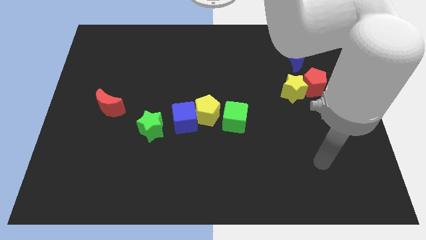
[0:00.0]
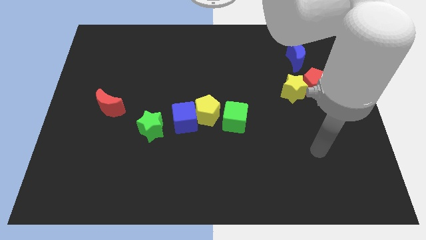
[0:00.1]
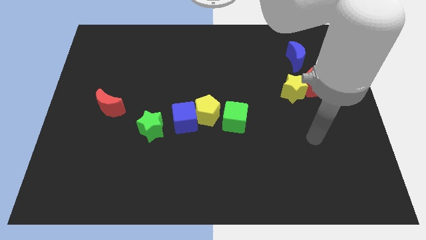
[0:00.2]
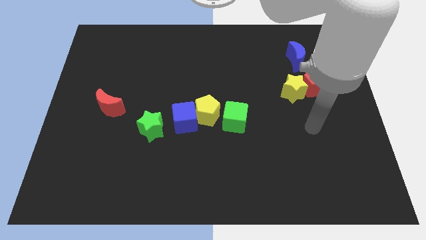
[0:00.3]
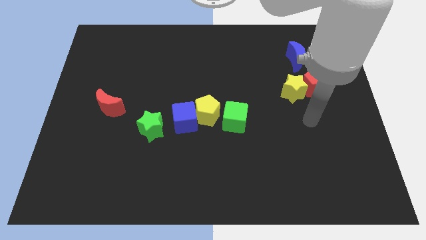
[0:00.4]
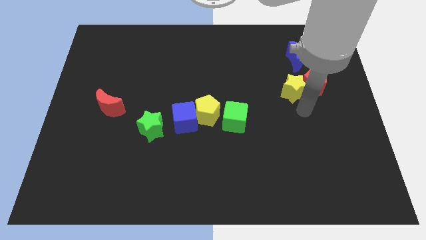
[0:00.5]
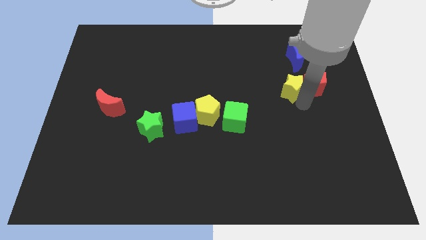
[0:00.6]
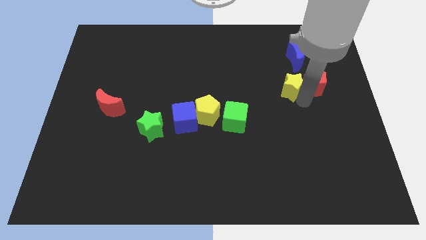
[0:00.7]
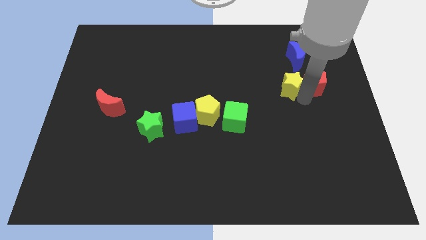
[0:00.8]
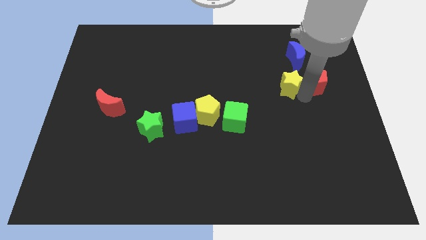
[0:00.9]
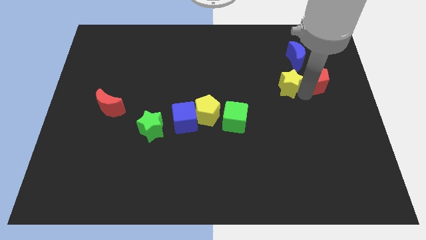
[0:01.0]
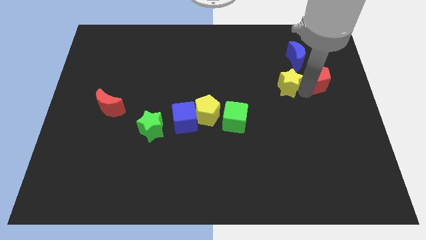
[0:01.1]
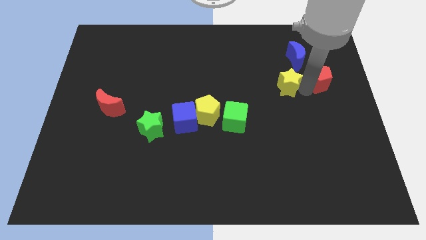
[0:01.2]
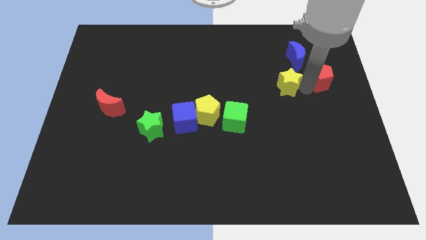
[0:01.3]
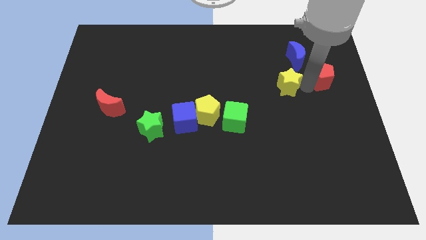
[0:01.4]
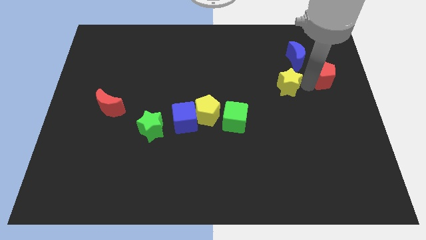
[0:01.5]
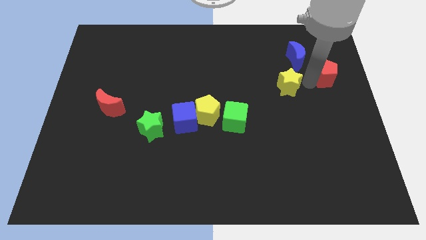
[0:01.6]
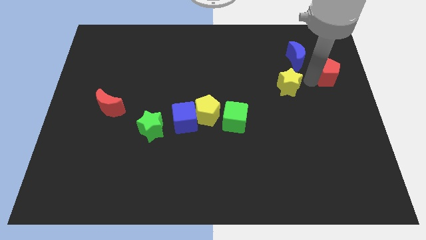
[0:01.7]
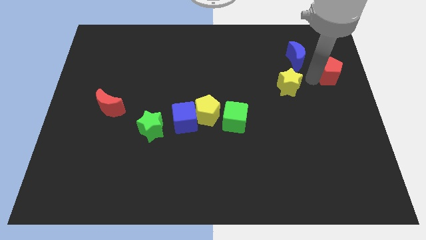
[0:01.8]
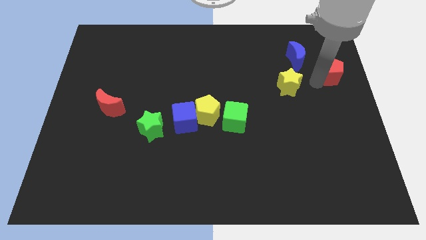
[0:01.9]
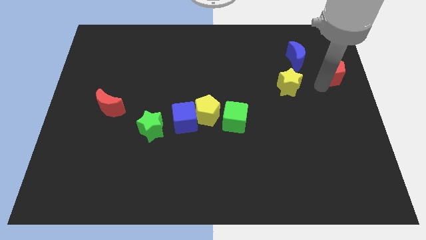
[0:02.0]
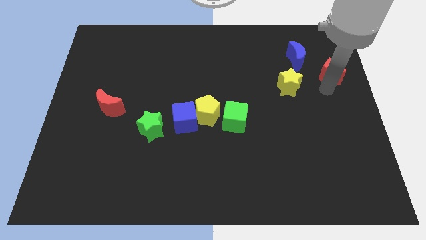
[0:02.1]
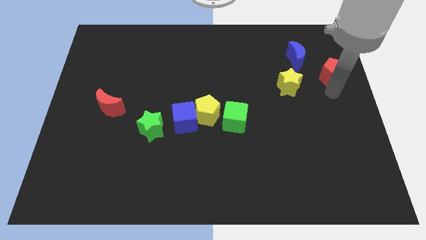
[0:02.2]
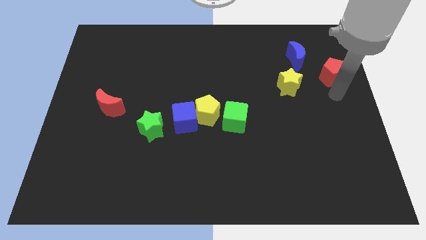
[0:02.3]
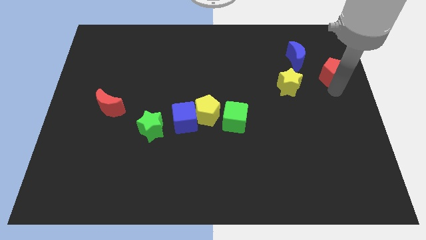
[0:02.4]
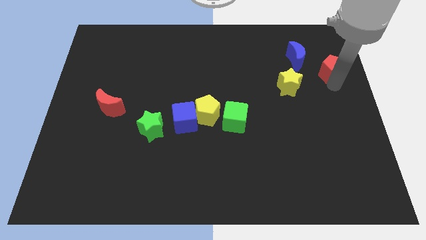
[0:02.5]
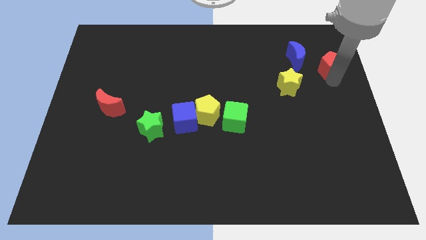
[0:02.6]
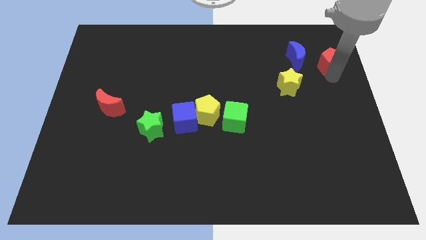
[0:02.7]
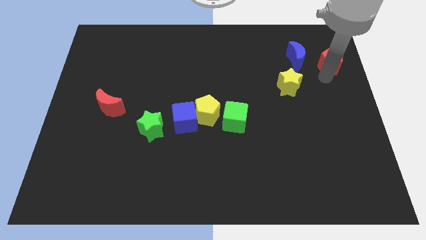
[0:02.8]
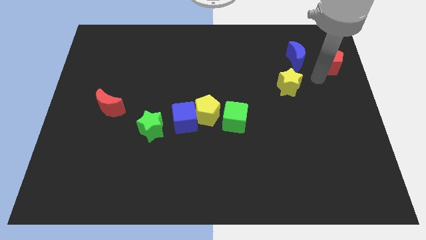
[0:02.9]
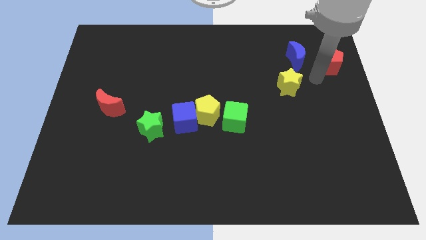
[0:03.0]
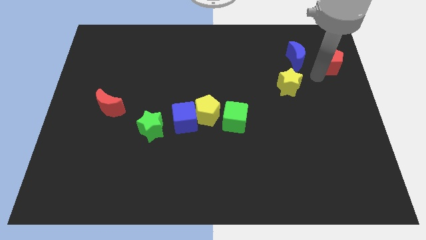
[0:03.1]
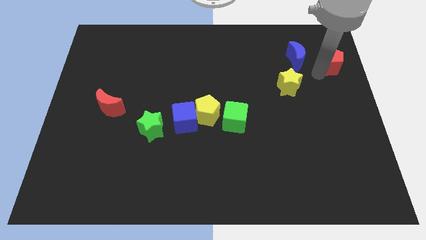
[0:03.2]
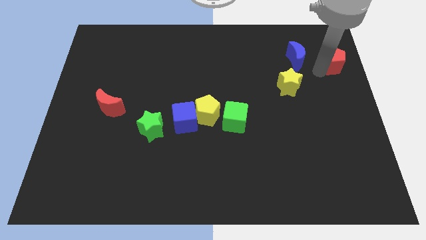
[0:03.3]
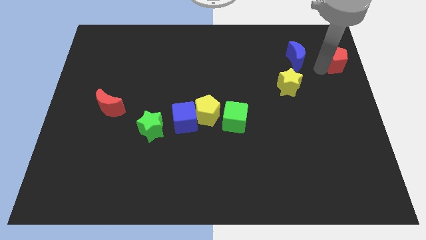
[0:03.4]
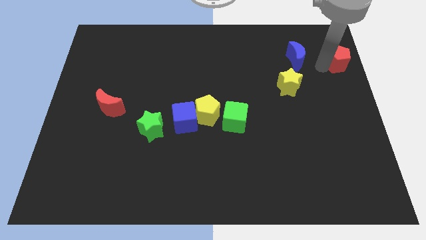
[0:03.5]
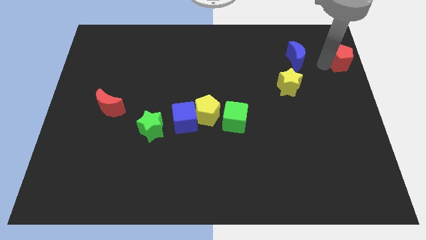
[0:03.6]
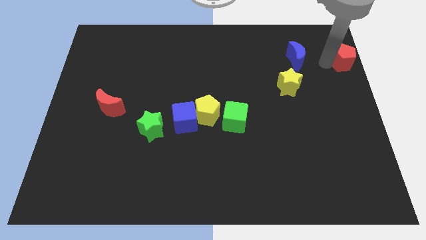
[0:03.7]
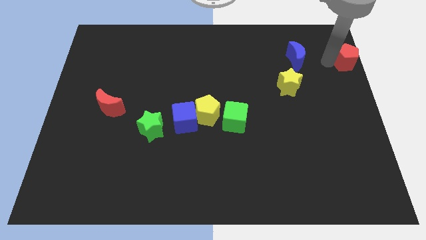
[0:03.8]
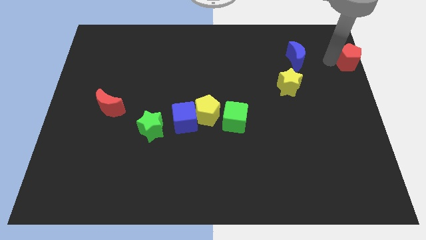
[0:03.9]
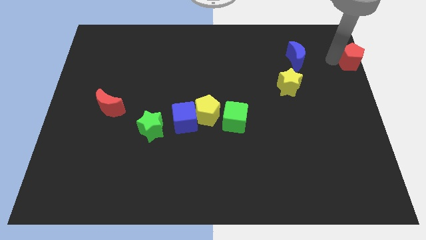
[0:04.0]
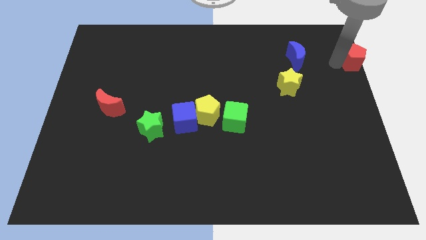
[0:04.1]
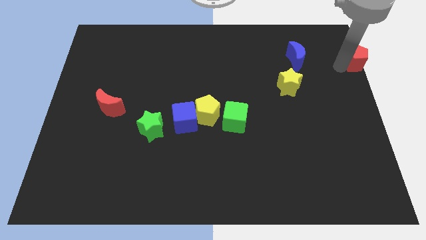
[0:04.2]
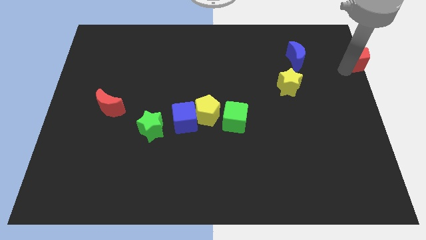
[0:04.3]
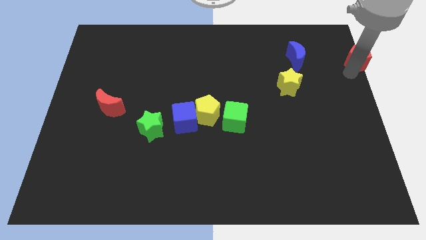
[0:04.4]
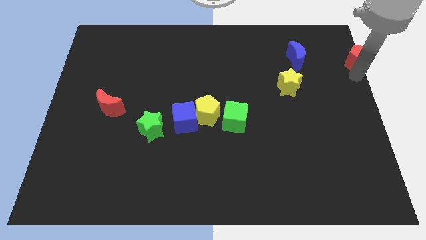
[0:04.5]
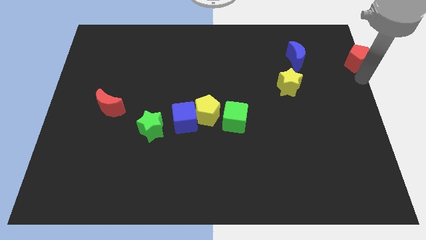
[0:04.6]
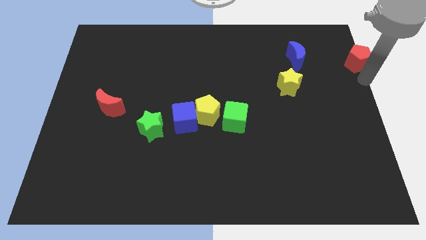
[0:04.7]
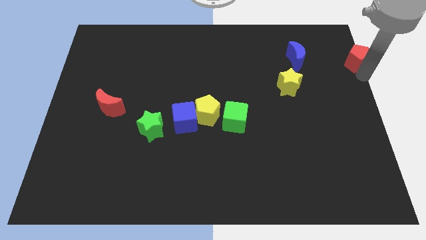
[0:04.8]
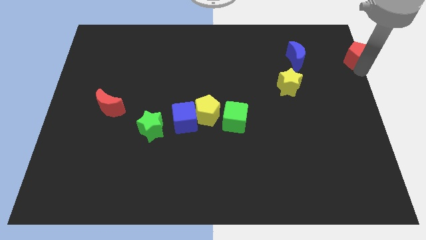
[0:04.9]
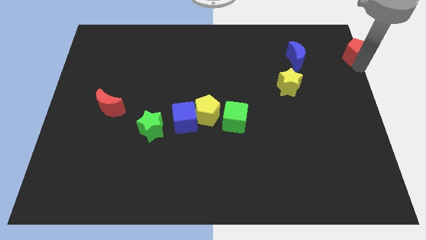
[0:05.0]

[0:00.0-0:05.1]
push the red pentagon to the top right

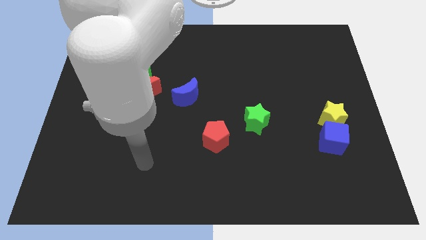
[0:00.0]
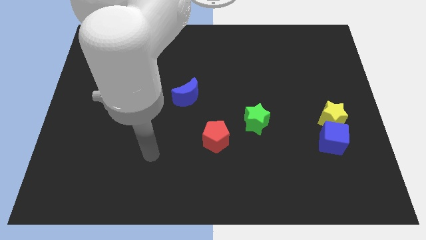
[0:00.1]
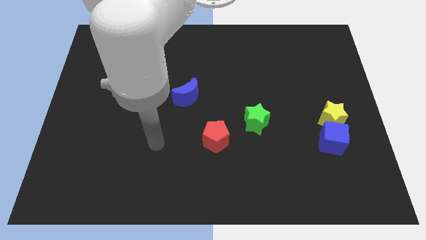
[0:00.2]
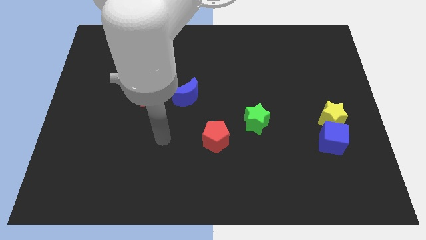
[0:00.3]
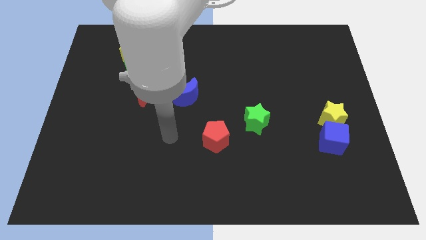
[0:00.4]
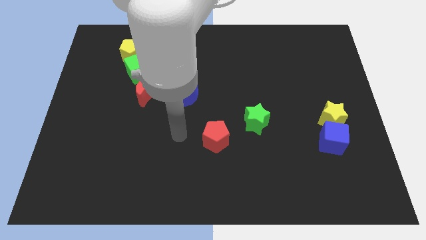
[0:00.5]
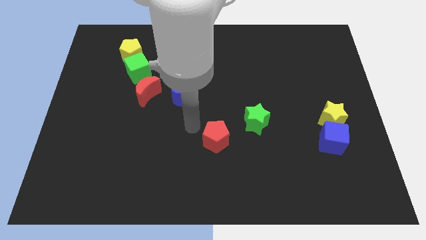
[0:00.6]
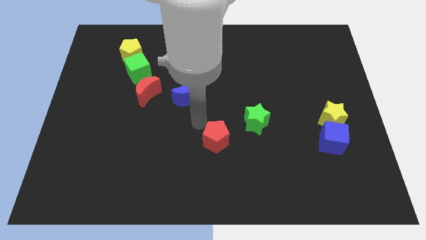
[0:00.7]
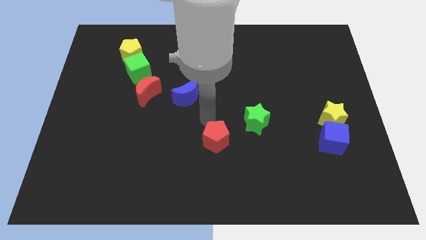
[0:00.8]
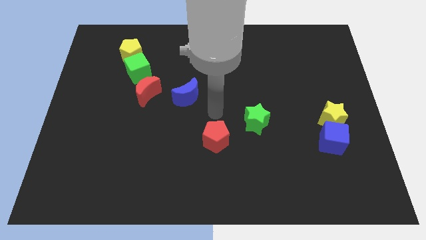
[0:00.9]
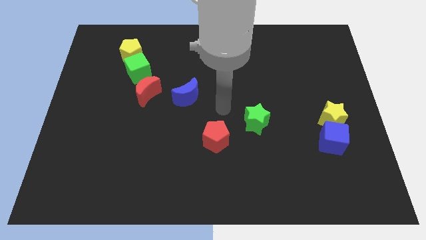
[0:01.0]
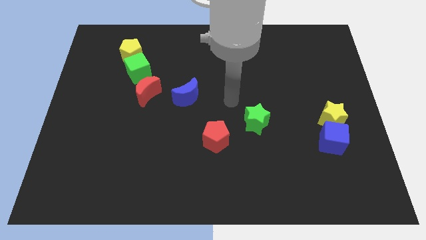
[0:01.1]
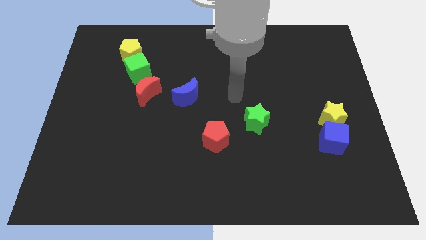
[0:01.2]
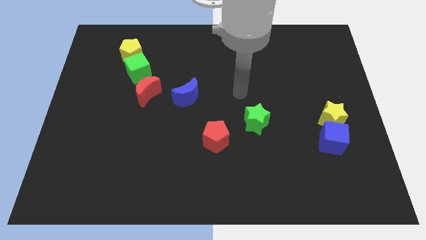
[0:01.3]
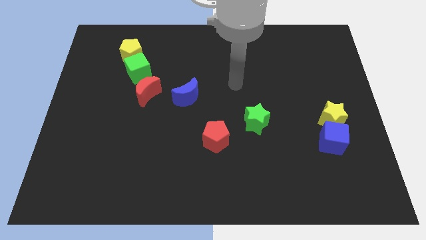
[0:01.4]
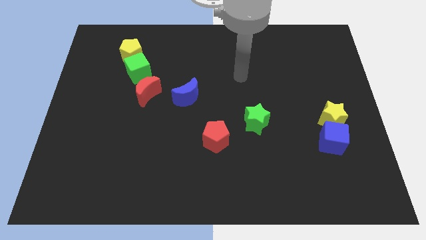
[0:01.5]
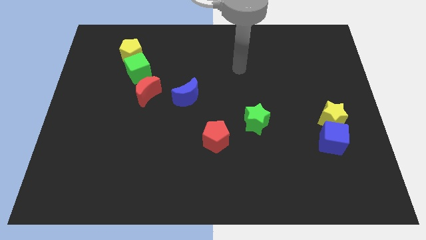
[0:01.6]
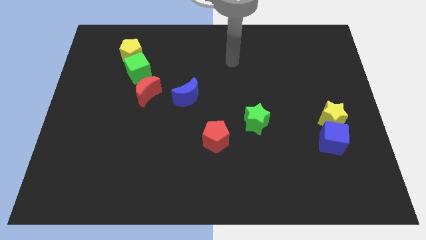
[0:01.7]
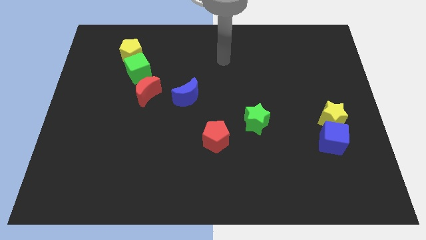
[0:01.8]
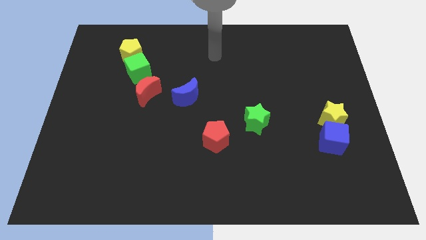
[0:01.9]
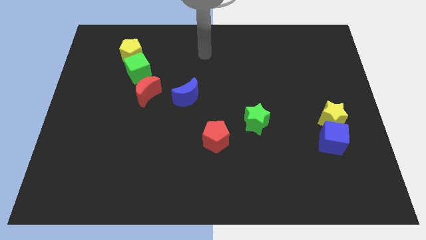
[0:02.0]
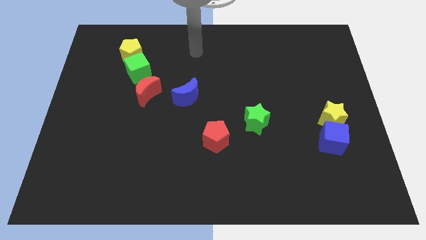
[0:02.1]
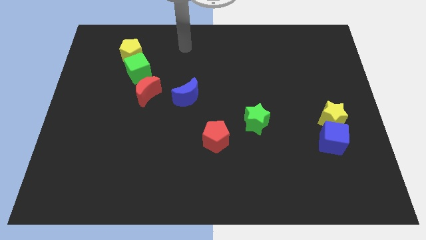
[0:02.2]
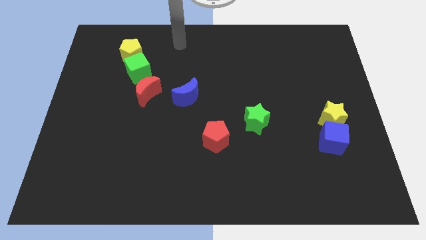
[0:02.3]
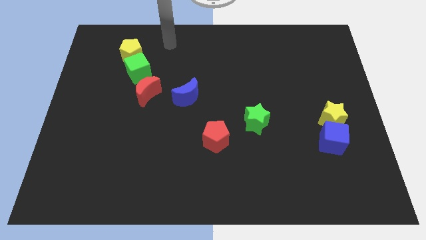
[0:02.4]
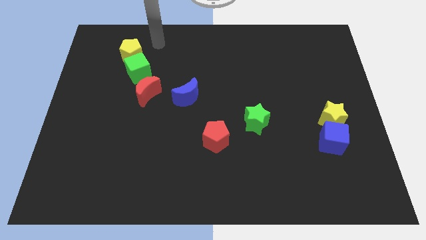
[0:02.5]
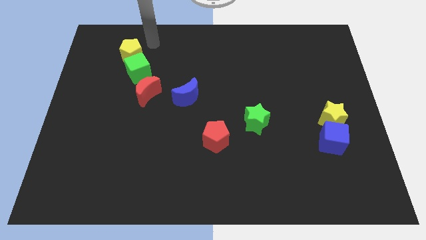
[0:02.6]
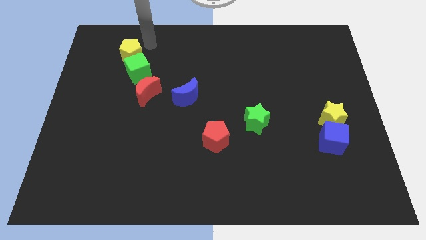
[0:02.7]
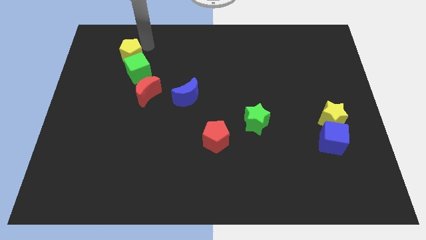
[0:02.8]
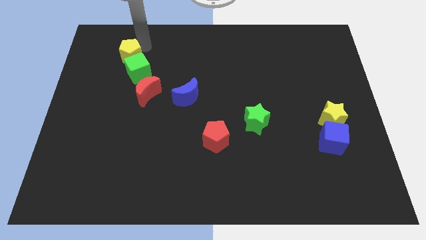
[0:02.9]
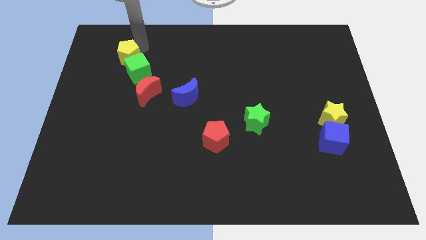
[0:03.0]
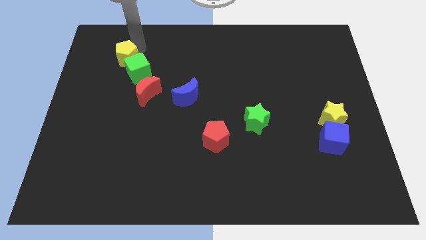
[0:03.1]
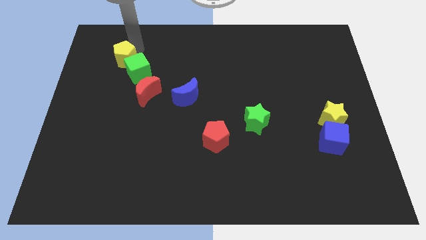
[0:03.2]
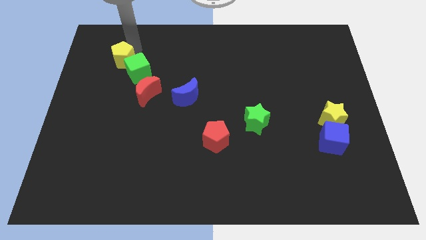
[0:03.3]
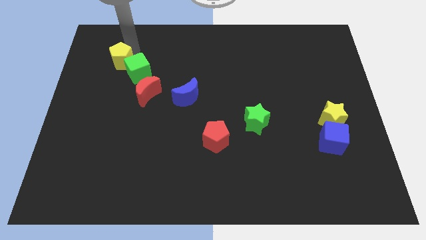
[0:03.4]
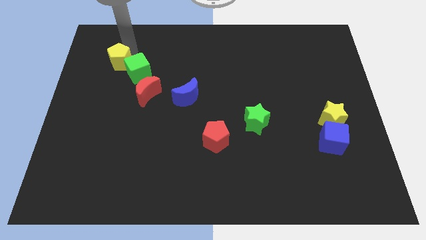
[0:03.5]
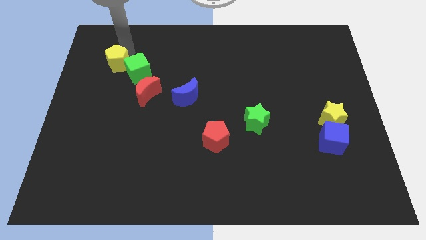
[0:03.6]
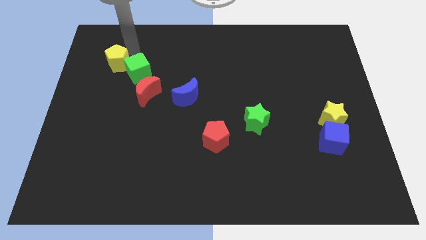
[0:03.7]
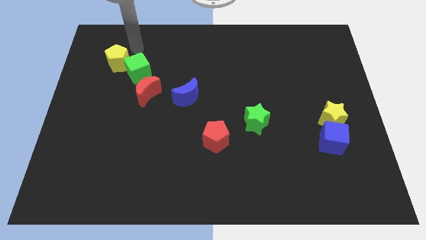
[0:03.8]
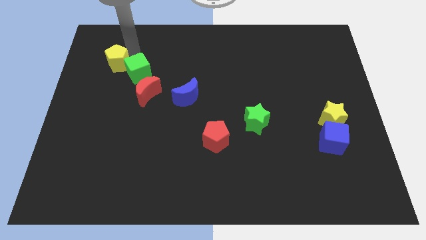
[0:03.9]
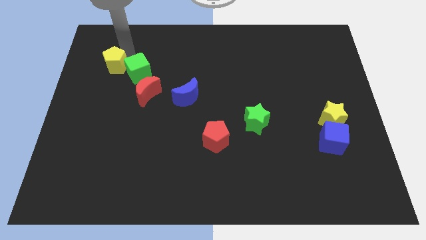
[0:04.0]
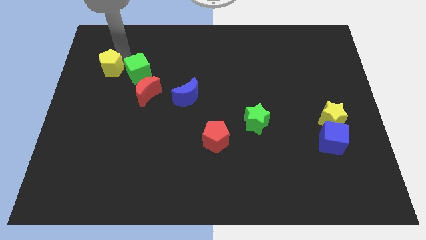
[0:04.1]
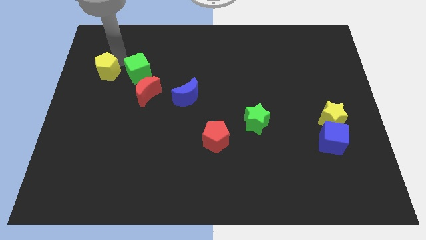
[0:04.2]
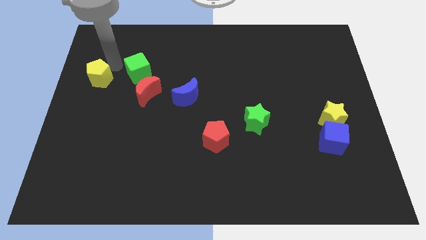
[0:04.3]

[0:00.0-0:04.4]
move the yellow pentagon to the left side
